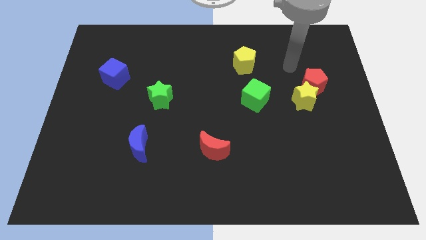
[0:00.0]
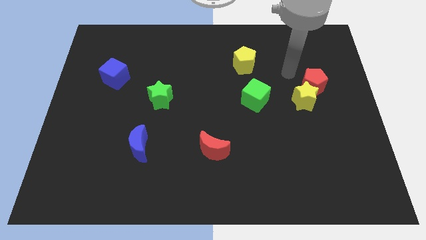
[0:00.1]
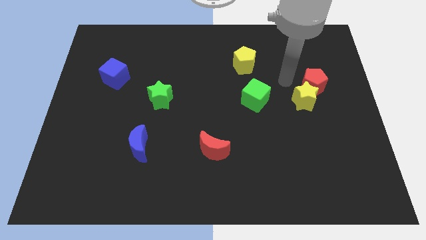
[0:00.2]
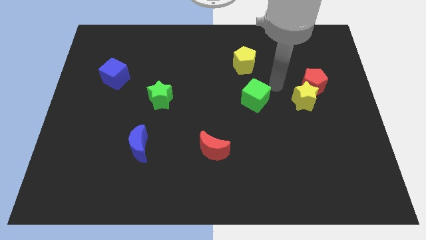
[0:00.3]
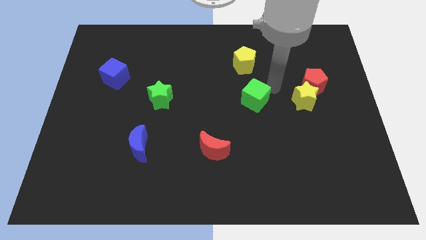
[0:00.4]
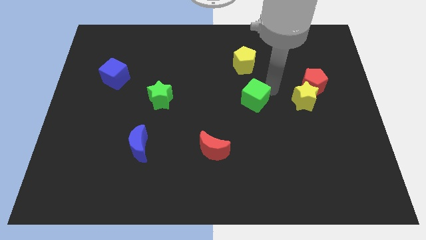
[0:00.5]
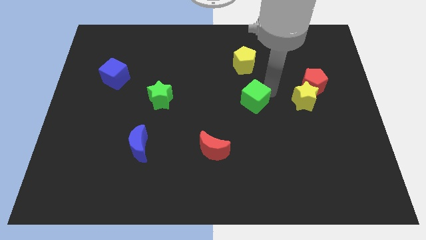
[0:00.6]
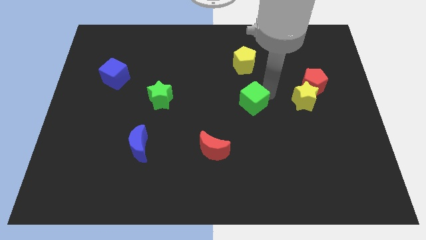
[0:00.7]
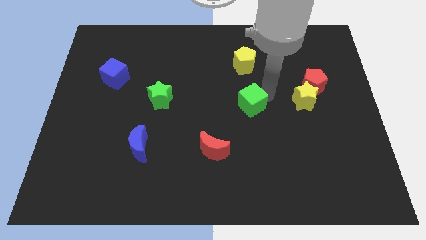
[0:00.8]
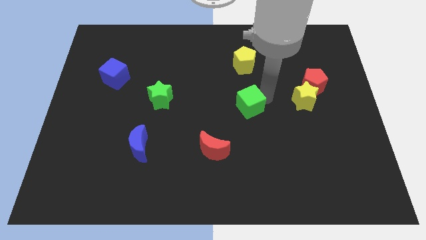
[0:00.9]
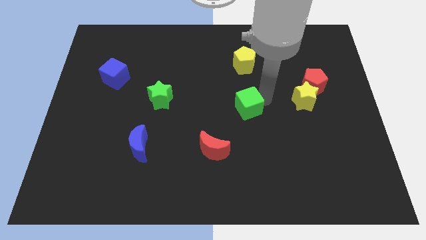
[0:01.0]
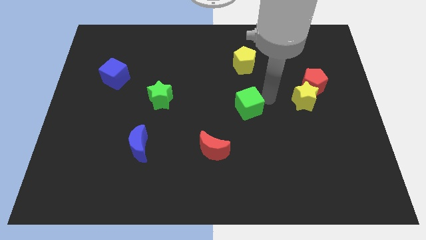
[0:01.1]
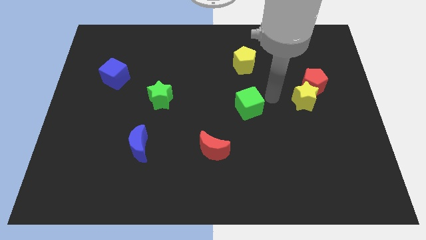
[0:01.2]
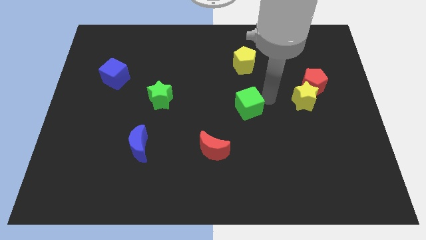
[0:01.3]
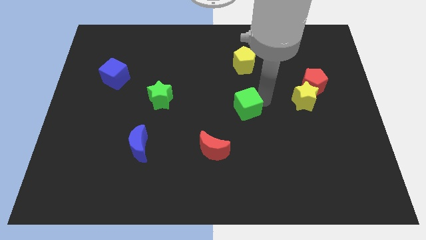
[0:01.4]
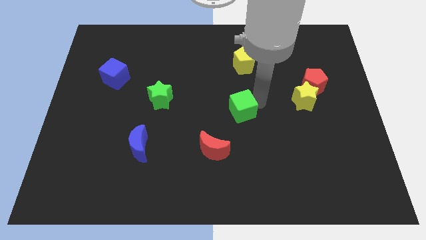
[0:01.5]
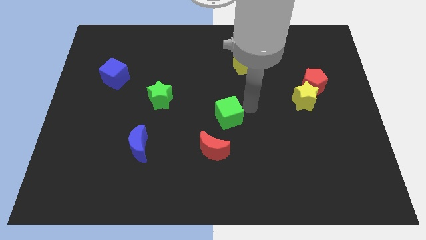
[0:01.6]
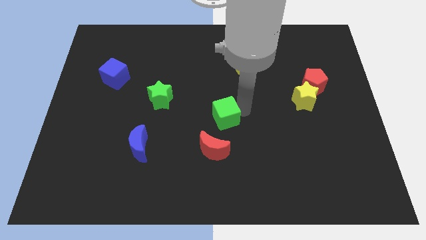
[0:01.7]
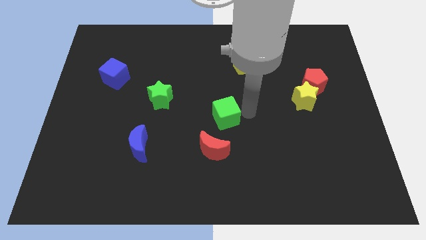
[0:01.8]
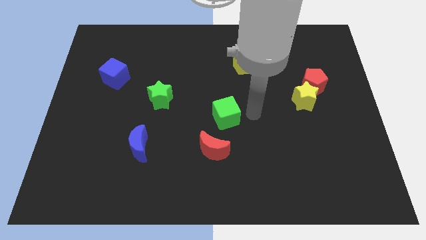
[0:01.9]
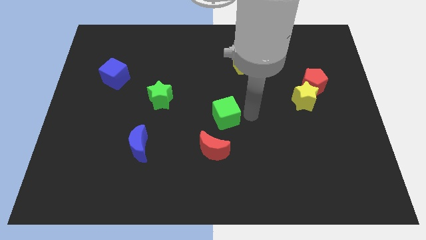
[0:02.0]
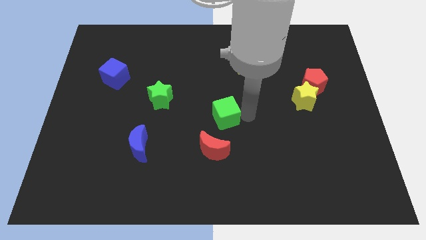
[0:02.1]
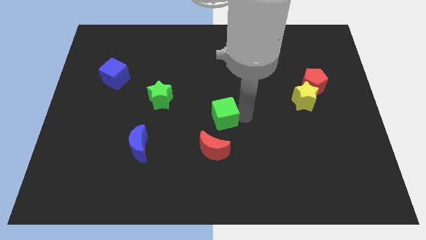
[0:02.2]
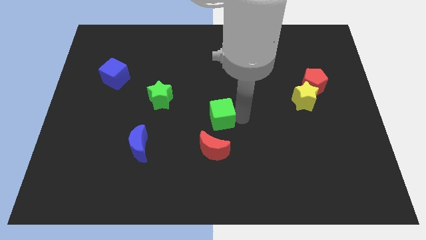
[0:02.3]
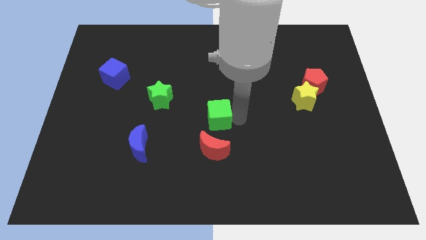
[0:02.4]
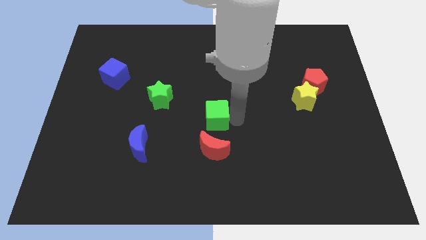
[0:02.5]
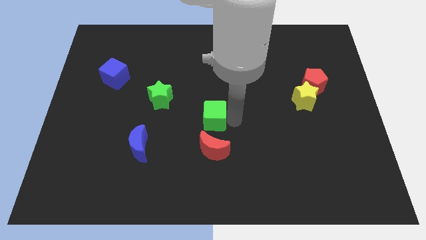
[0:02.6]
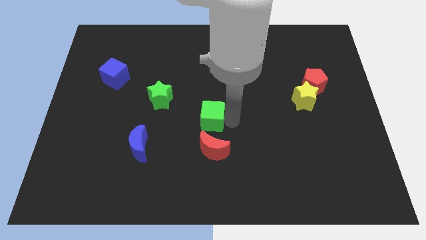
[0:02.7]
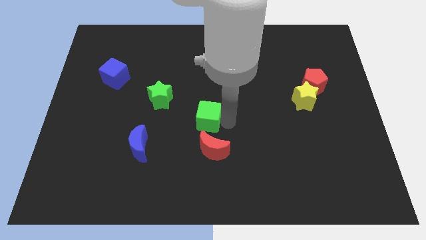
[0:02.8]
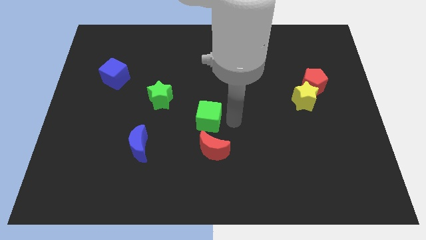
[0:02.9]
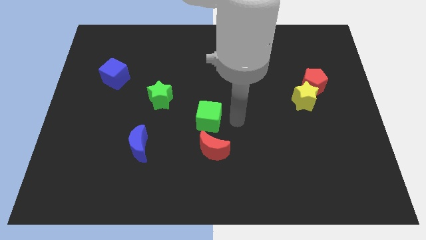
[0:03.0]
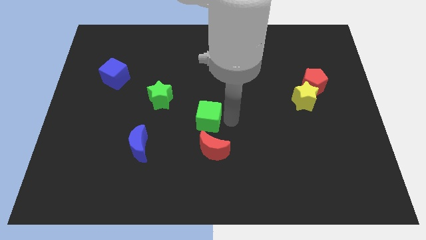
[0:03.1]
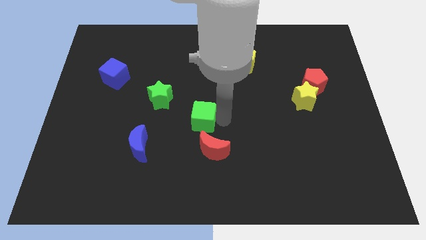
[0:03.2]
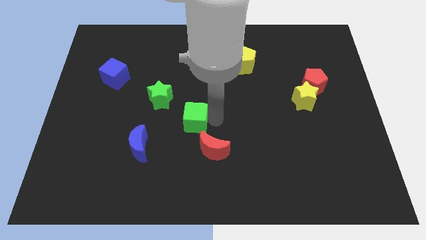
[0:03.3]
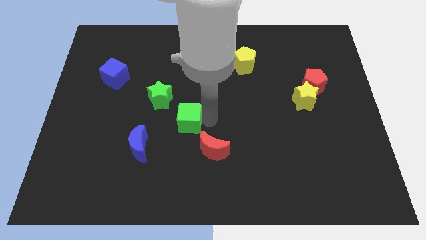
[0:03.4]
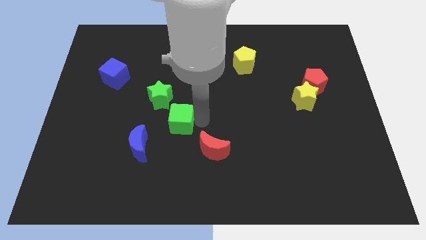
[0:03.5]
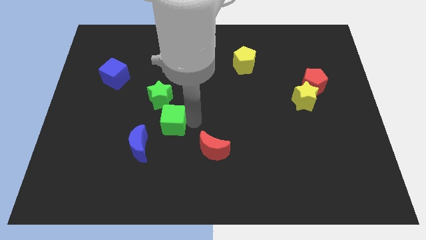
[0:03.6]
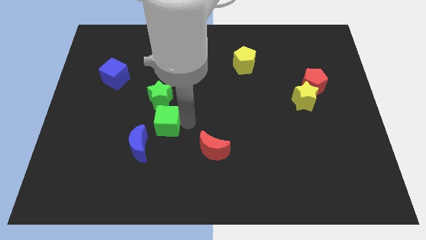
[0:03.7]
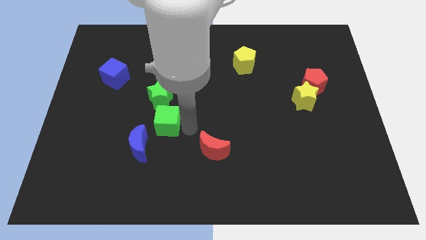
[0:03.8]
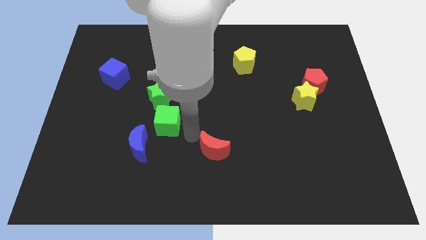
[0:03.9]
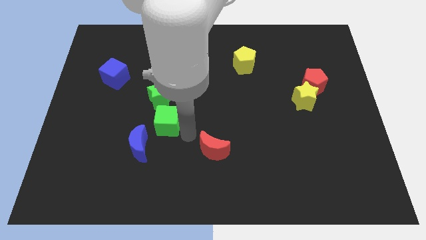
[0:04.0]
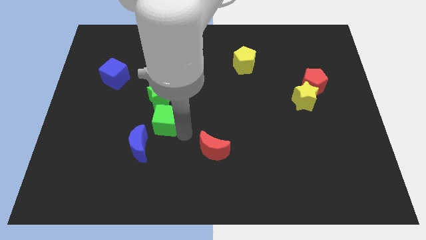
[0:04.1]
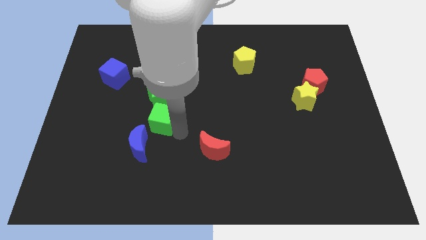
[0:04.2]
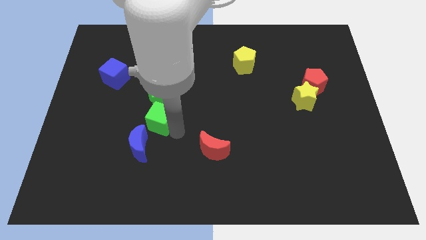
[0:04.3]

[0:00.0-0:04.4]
push the green cube left

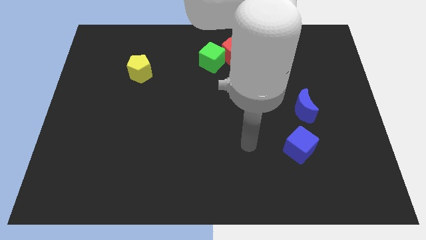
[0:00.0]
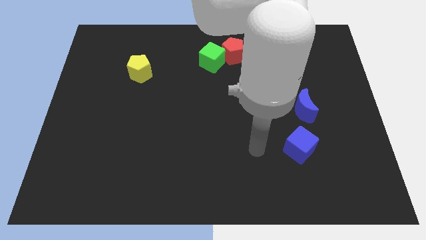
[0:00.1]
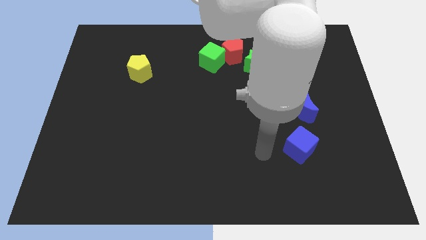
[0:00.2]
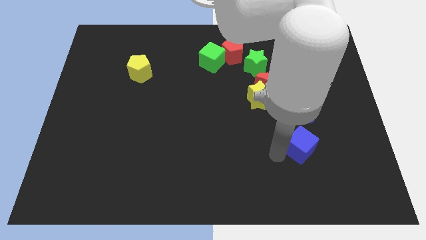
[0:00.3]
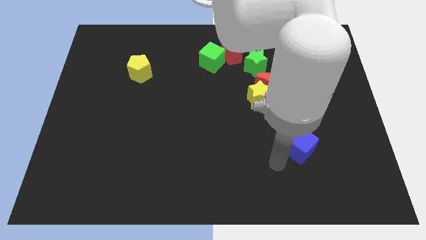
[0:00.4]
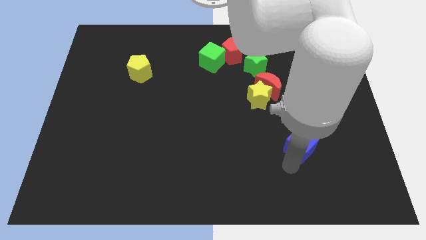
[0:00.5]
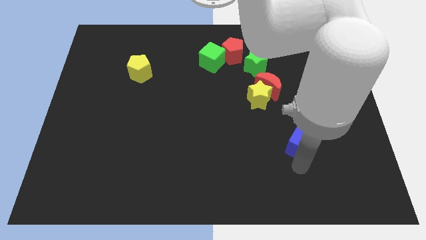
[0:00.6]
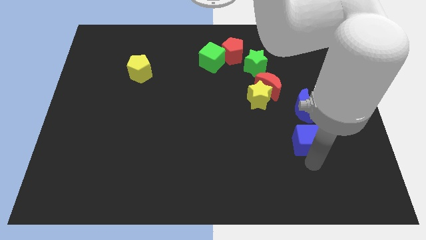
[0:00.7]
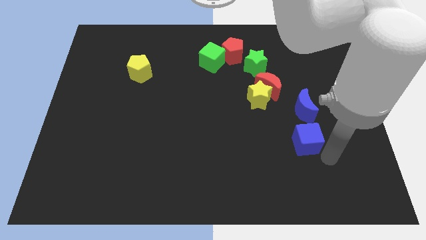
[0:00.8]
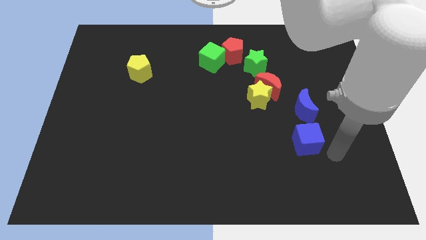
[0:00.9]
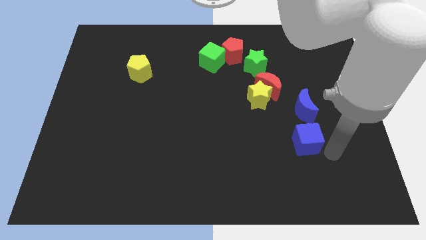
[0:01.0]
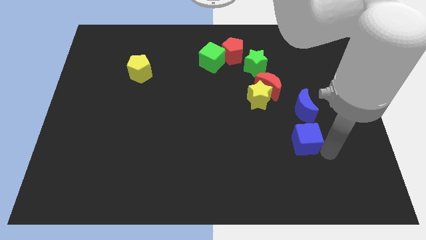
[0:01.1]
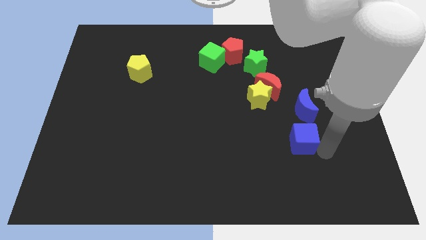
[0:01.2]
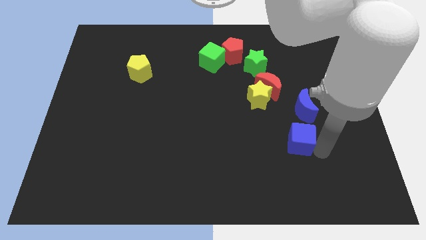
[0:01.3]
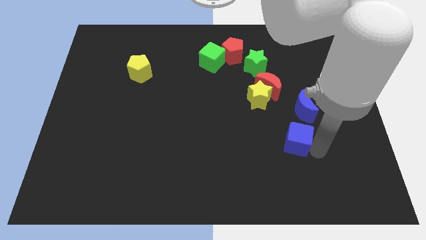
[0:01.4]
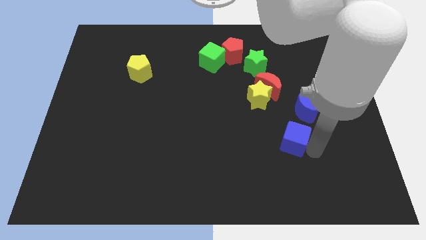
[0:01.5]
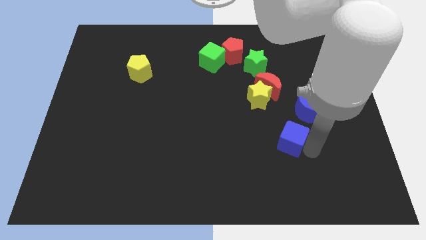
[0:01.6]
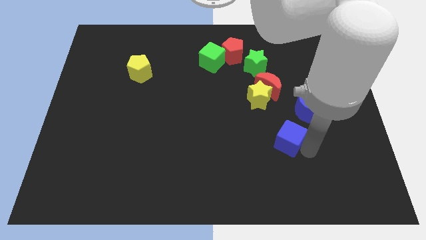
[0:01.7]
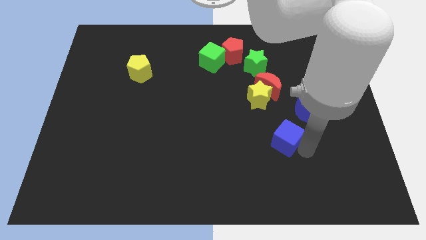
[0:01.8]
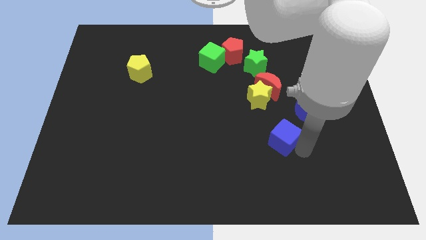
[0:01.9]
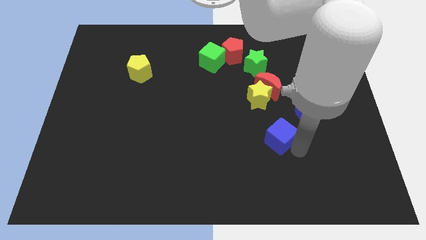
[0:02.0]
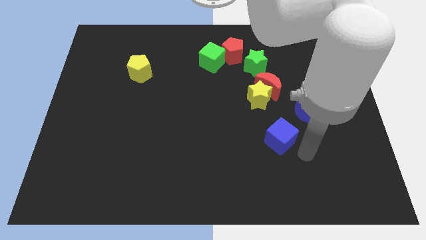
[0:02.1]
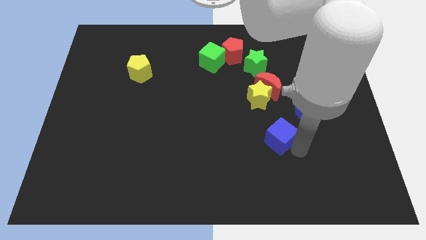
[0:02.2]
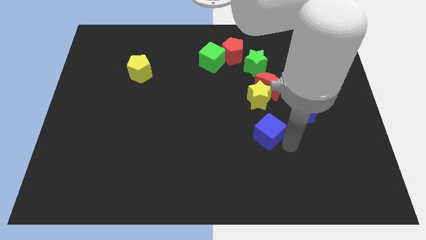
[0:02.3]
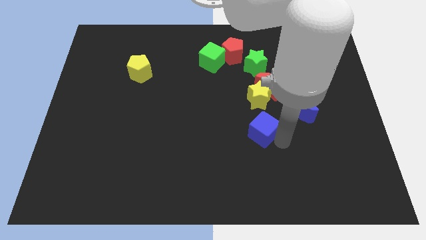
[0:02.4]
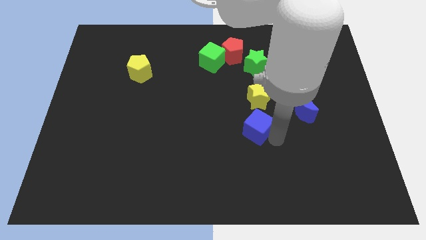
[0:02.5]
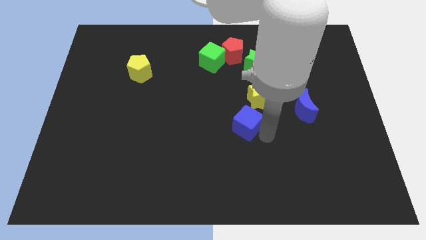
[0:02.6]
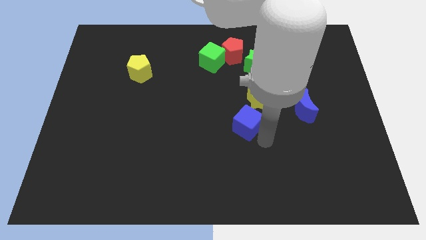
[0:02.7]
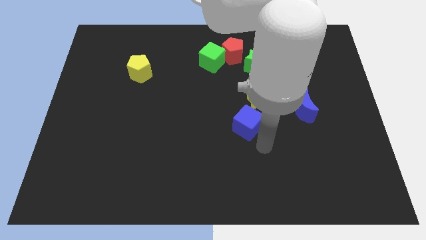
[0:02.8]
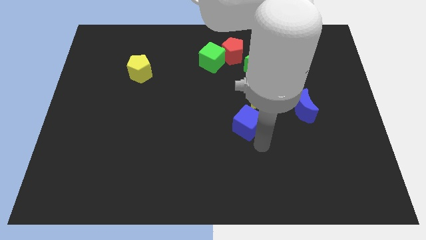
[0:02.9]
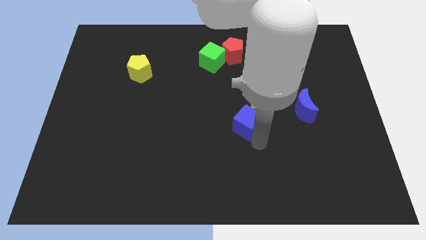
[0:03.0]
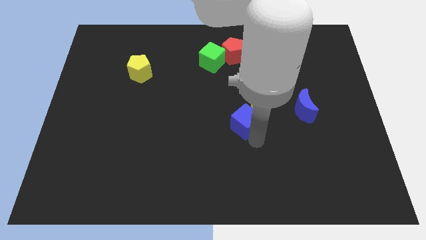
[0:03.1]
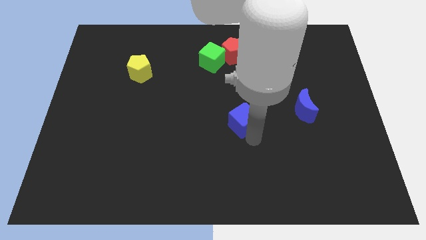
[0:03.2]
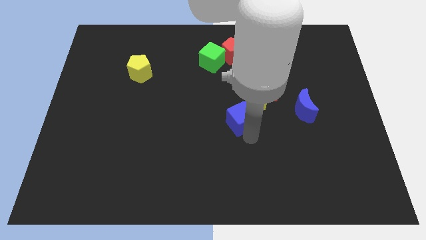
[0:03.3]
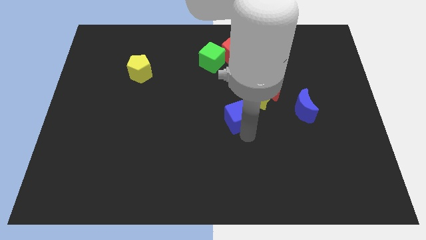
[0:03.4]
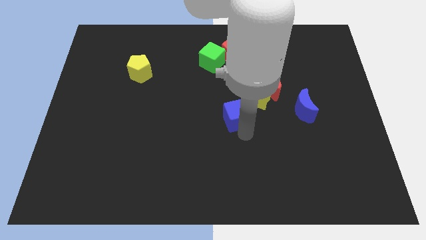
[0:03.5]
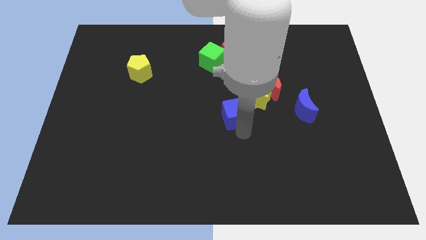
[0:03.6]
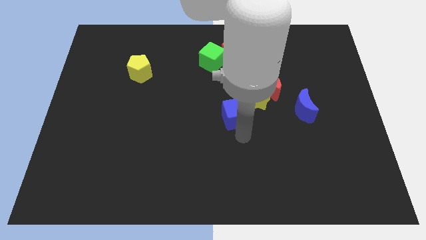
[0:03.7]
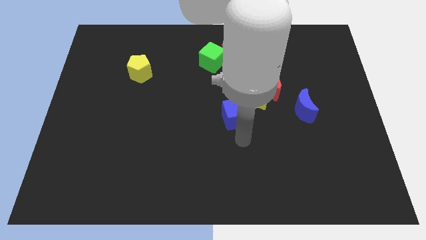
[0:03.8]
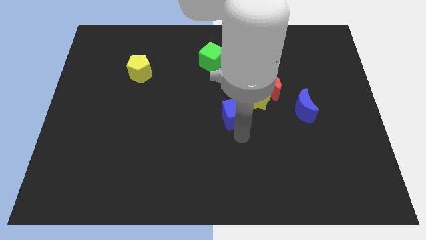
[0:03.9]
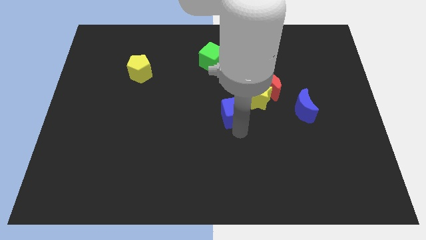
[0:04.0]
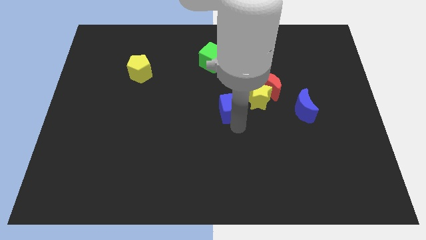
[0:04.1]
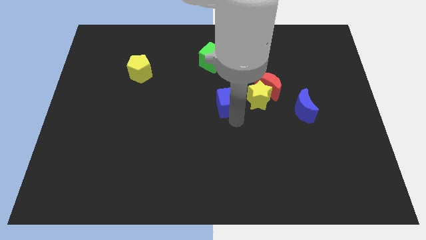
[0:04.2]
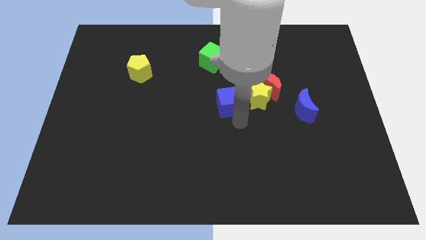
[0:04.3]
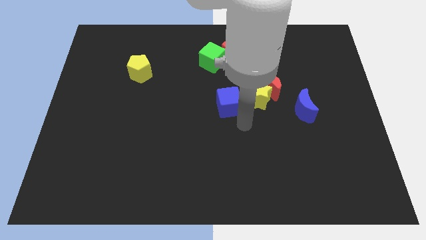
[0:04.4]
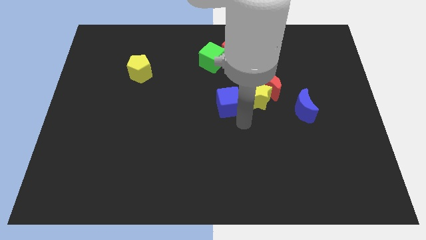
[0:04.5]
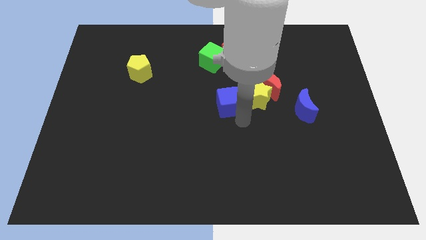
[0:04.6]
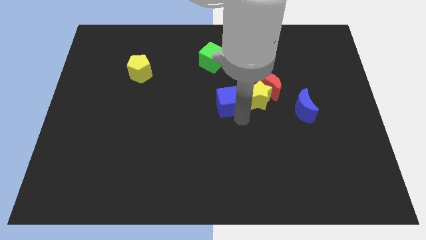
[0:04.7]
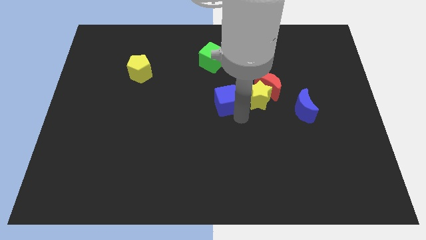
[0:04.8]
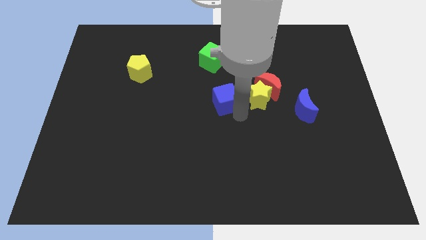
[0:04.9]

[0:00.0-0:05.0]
push the blue cube up and left
